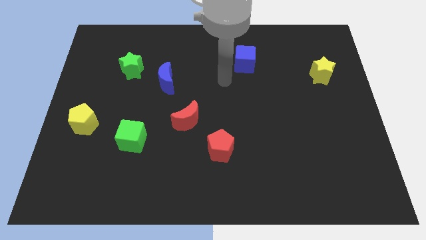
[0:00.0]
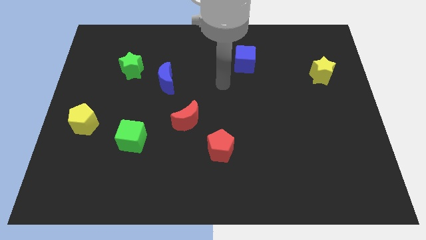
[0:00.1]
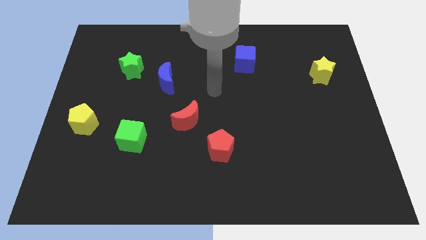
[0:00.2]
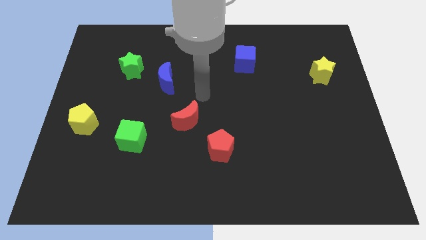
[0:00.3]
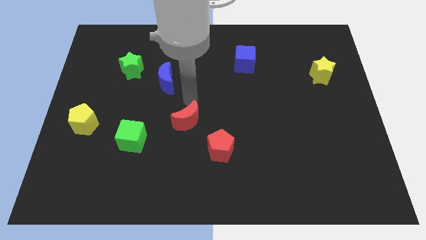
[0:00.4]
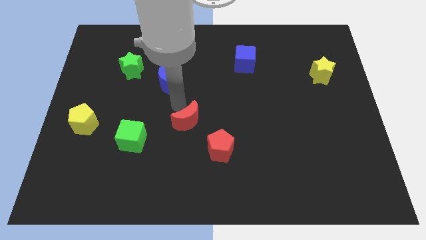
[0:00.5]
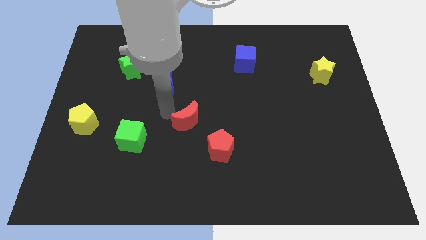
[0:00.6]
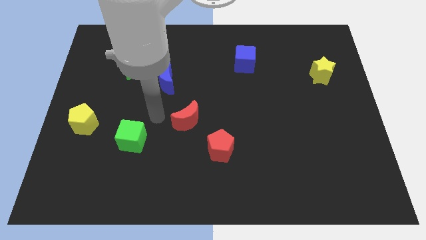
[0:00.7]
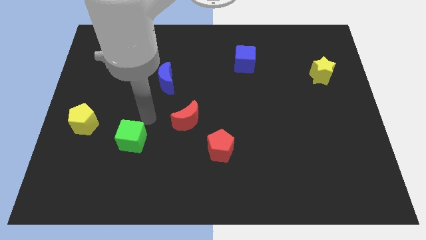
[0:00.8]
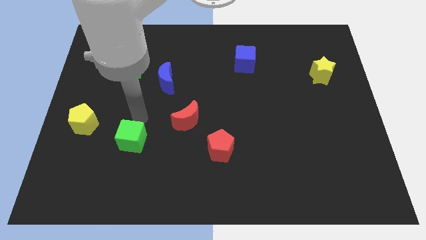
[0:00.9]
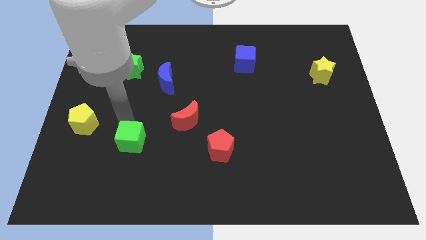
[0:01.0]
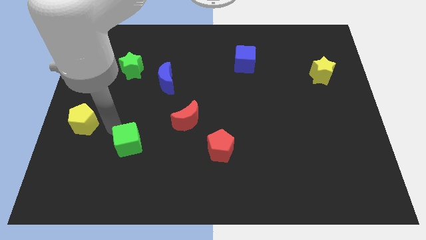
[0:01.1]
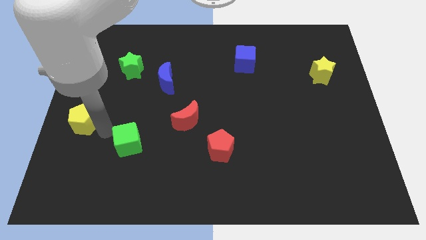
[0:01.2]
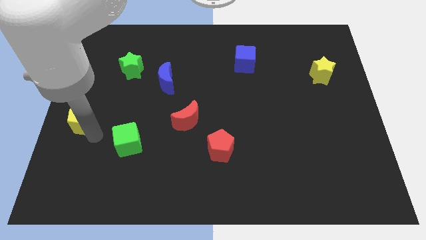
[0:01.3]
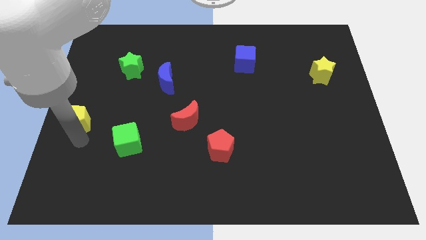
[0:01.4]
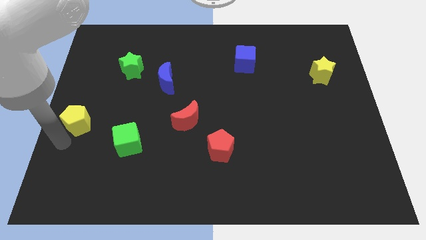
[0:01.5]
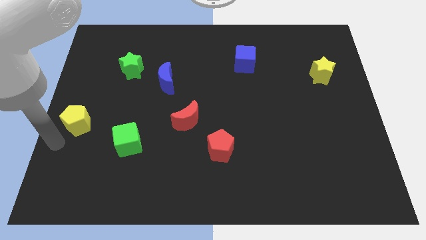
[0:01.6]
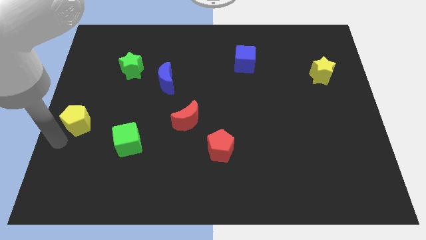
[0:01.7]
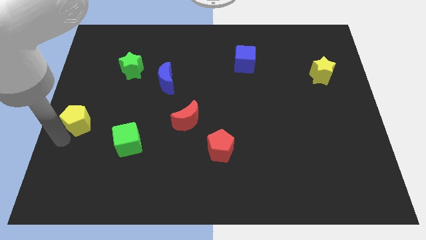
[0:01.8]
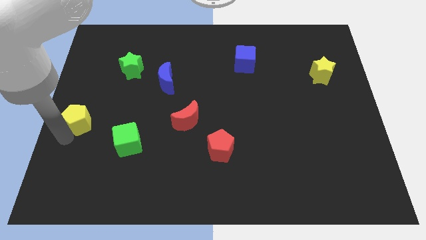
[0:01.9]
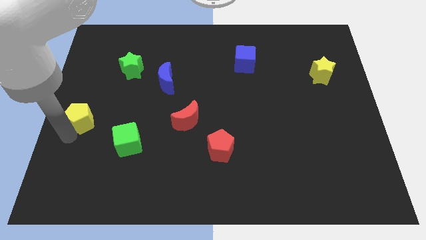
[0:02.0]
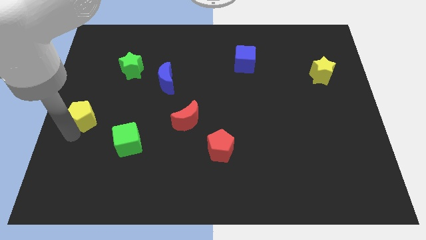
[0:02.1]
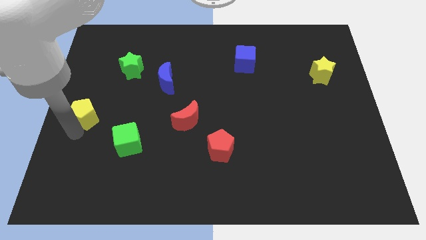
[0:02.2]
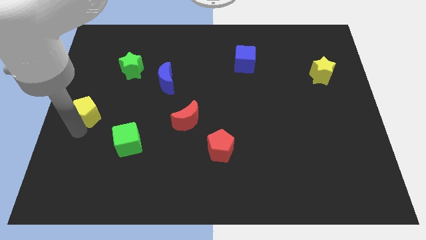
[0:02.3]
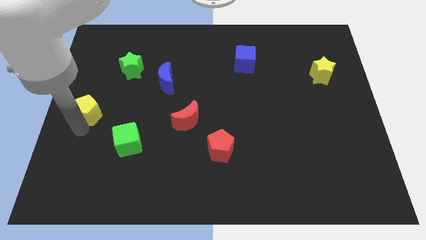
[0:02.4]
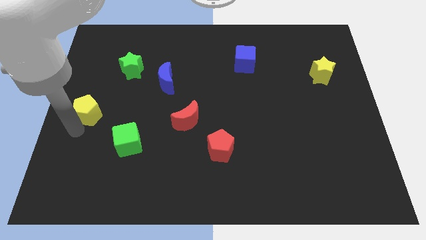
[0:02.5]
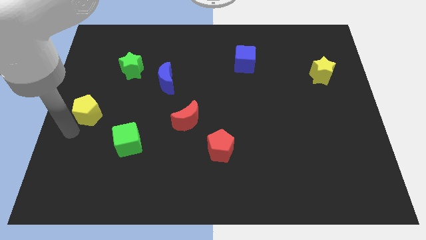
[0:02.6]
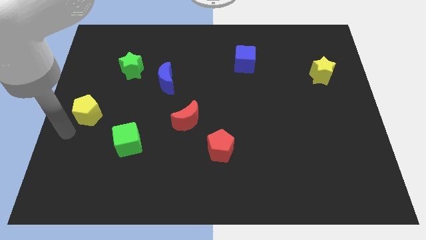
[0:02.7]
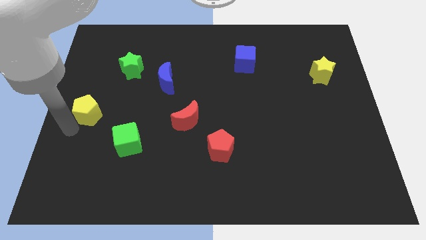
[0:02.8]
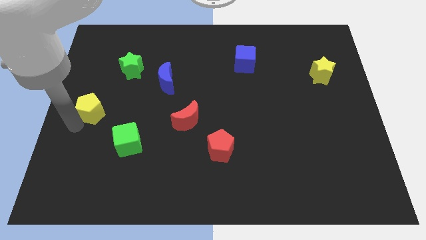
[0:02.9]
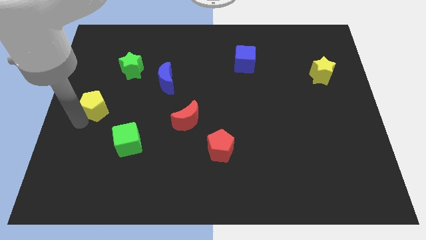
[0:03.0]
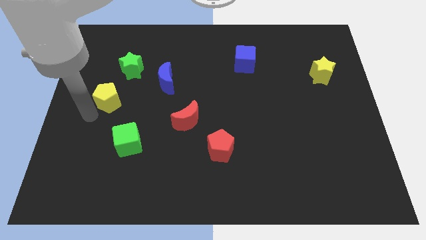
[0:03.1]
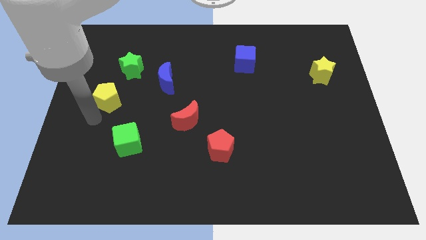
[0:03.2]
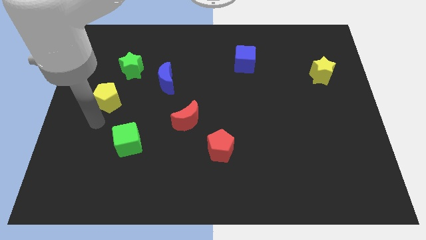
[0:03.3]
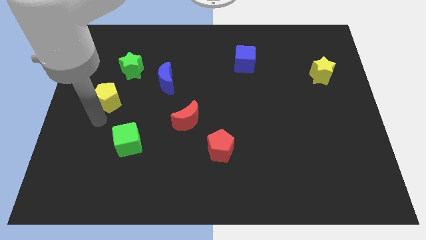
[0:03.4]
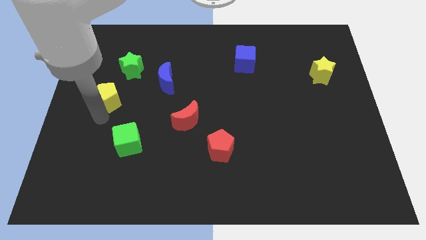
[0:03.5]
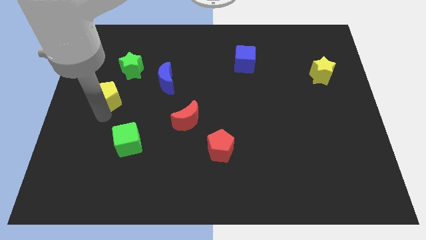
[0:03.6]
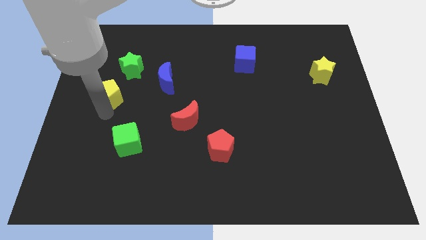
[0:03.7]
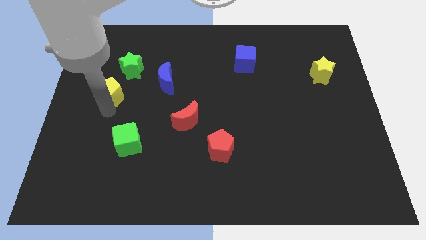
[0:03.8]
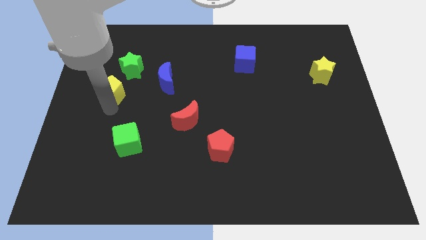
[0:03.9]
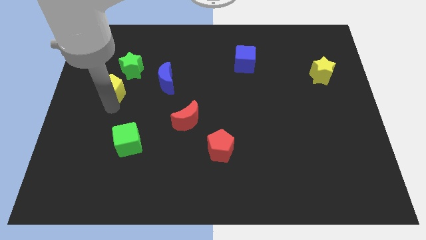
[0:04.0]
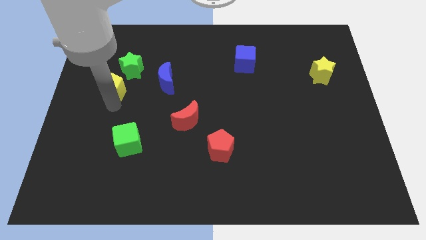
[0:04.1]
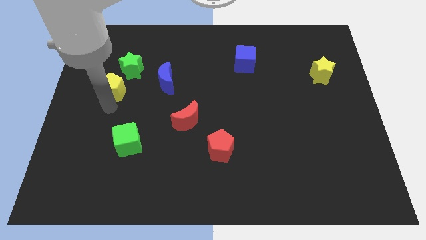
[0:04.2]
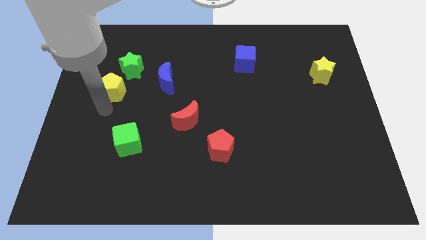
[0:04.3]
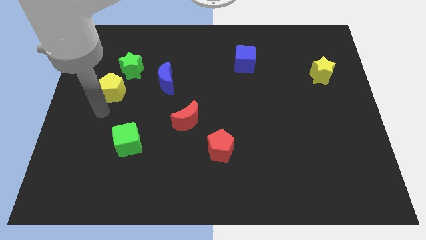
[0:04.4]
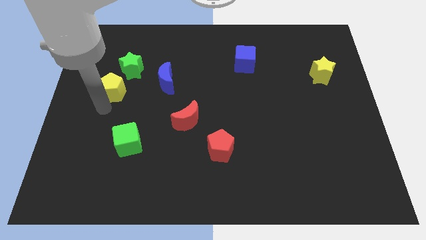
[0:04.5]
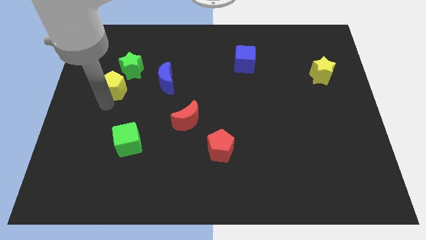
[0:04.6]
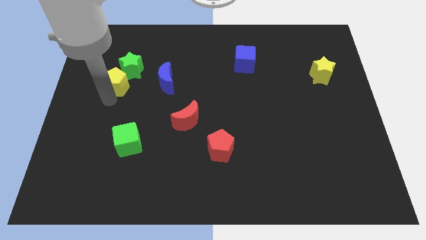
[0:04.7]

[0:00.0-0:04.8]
put the yellow pentagon next to the green star

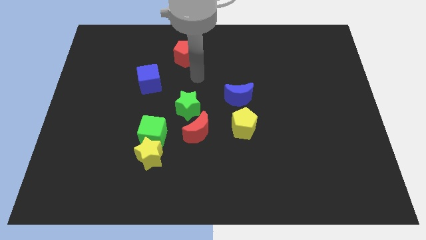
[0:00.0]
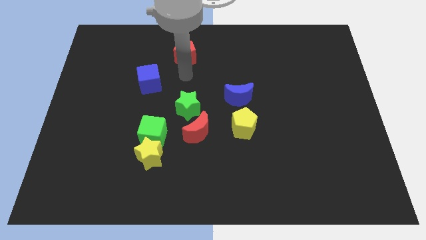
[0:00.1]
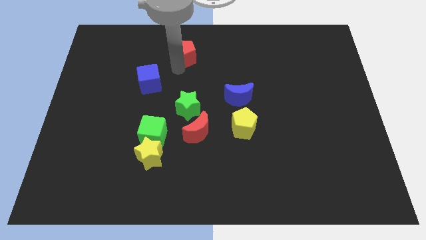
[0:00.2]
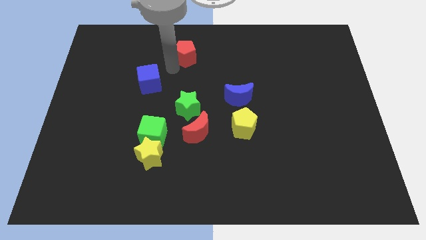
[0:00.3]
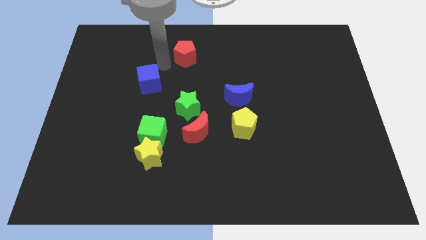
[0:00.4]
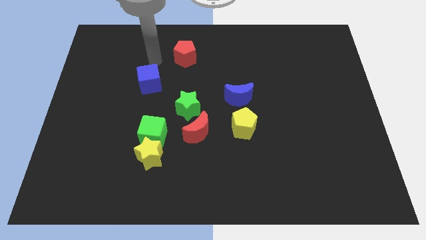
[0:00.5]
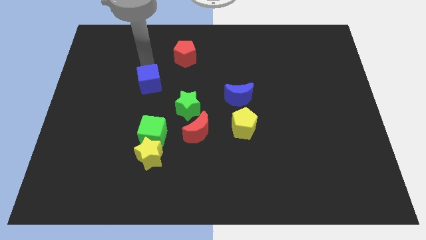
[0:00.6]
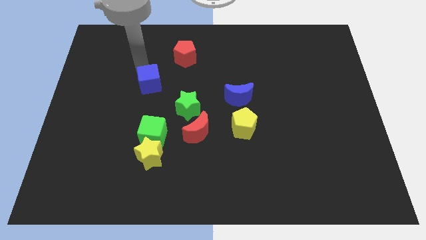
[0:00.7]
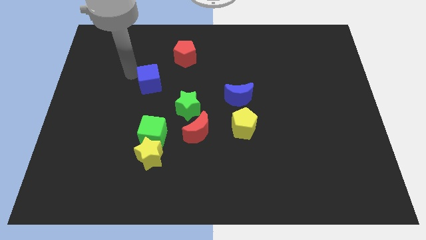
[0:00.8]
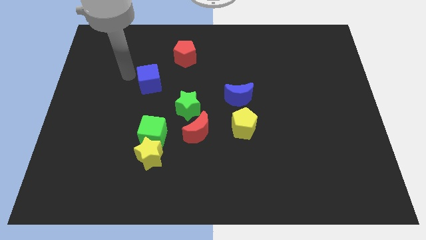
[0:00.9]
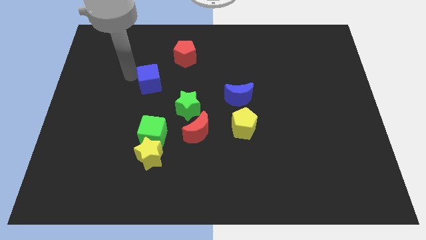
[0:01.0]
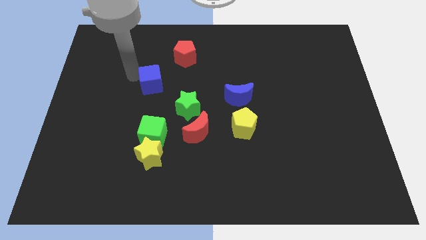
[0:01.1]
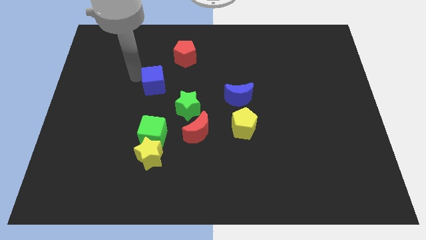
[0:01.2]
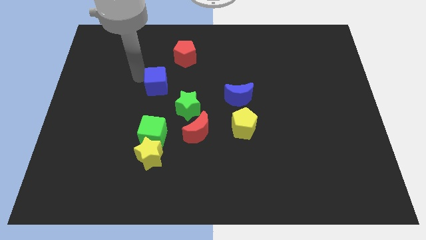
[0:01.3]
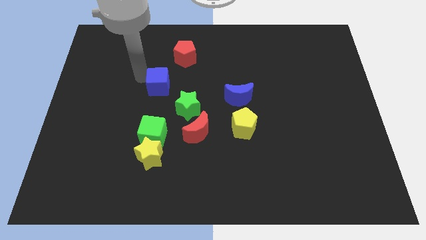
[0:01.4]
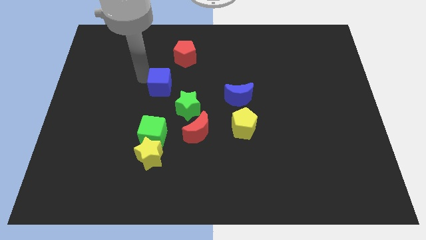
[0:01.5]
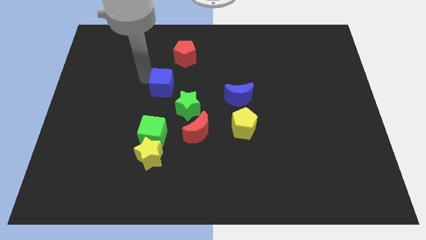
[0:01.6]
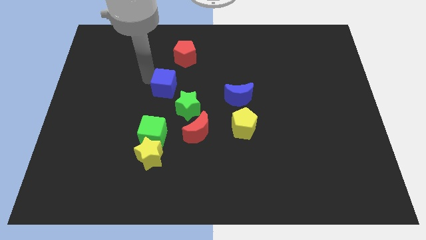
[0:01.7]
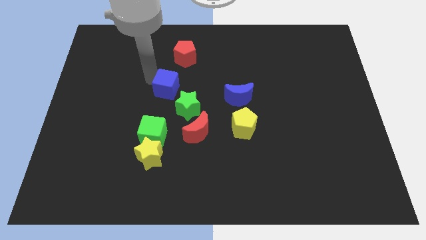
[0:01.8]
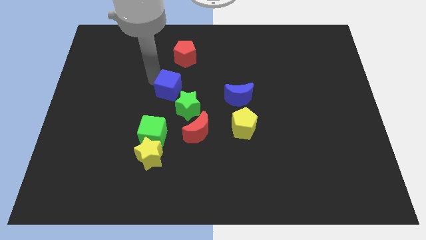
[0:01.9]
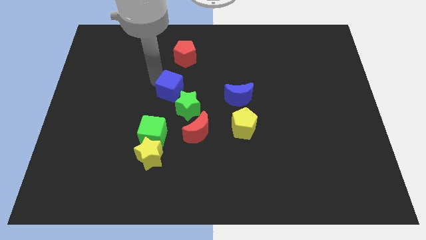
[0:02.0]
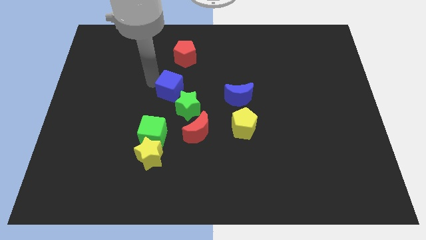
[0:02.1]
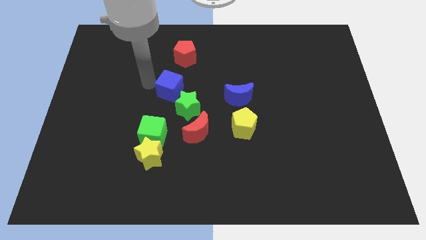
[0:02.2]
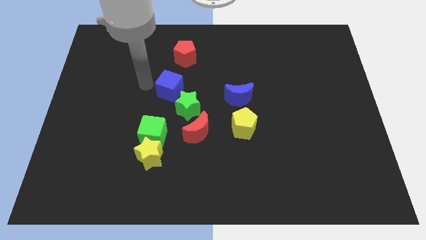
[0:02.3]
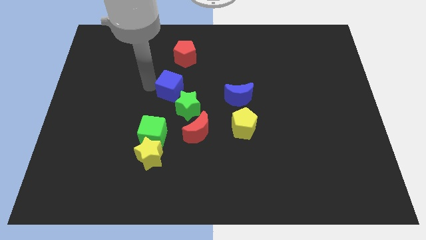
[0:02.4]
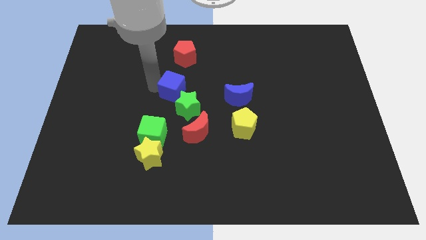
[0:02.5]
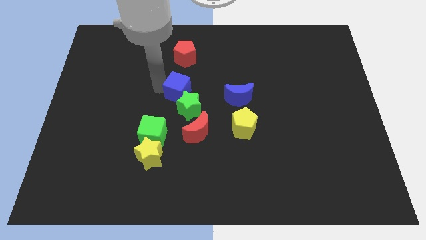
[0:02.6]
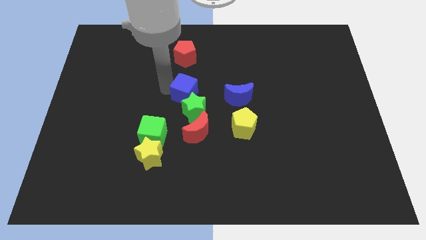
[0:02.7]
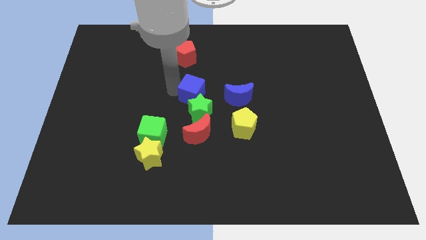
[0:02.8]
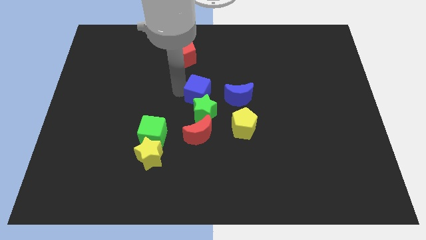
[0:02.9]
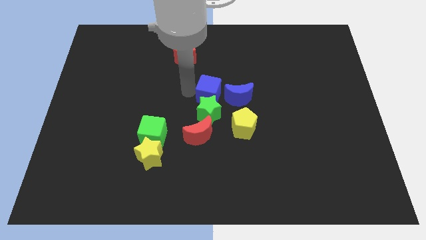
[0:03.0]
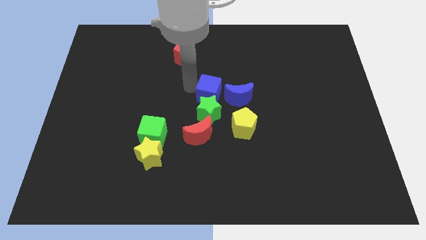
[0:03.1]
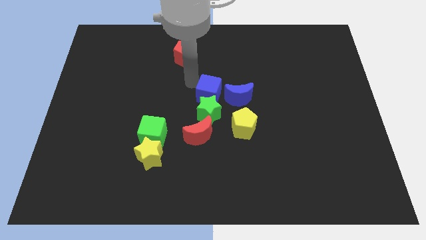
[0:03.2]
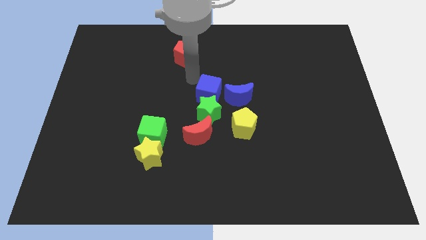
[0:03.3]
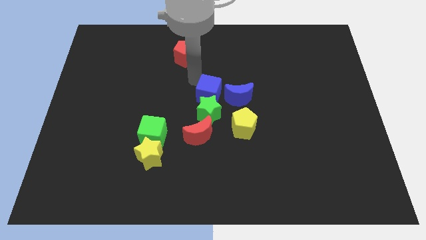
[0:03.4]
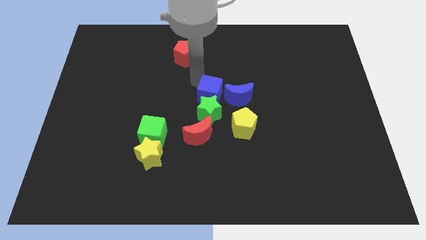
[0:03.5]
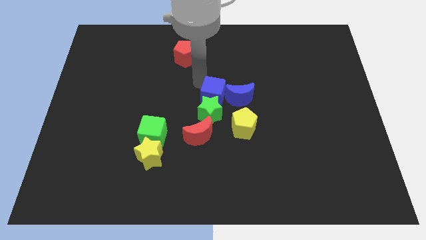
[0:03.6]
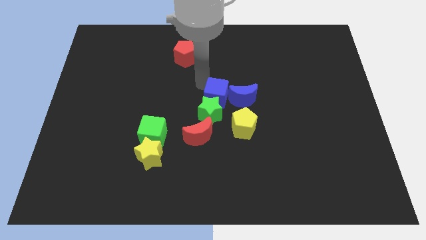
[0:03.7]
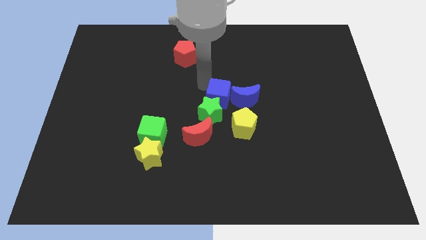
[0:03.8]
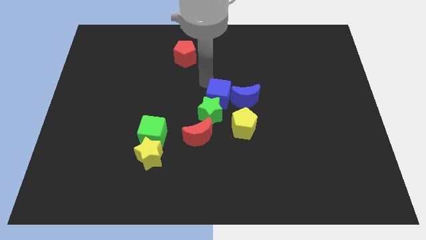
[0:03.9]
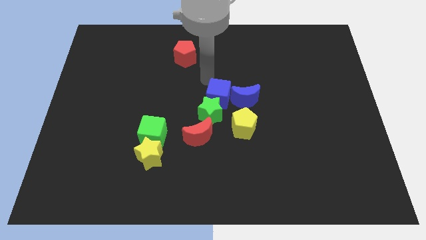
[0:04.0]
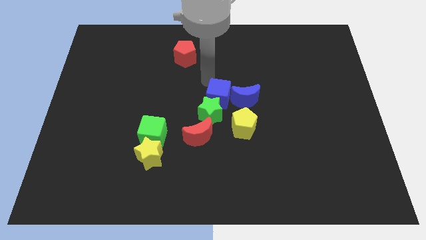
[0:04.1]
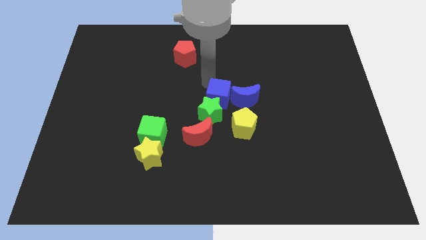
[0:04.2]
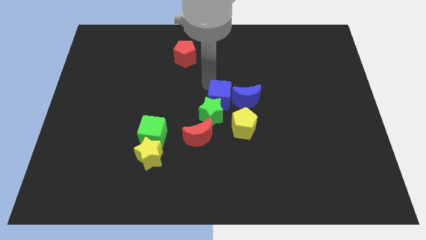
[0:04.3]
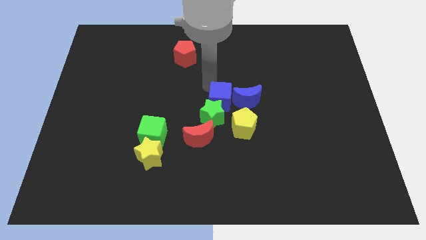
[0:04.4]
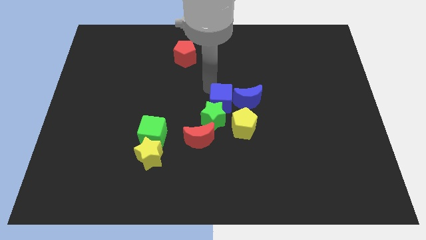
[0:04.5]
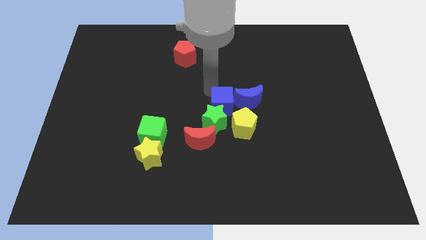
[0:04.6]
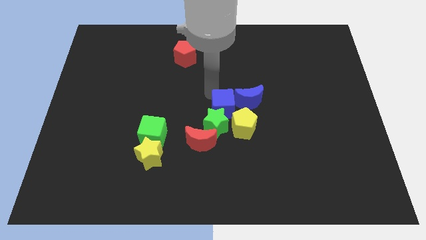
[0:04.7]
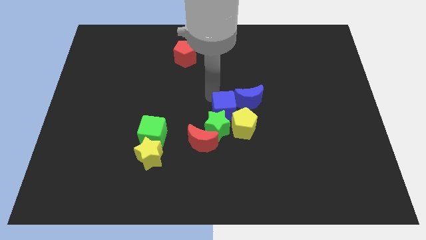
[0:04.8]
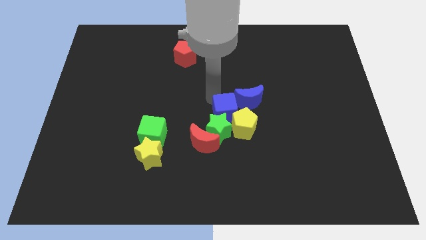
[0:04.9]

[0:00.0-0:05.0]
move the blue cube next to the yellow pentagon
